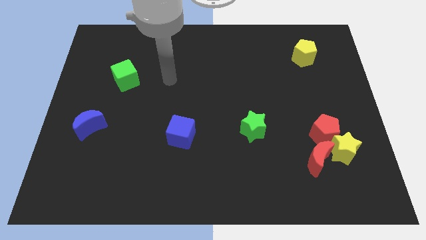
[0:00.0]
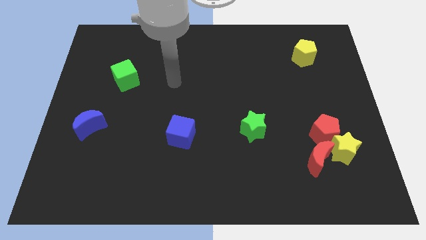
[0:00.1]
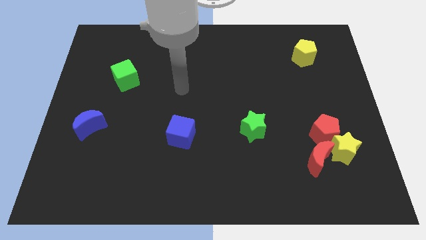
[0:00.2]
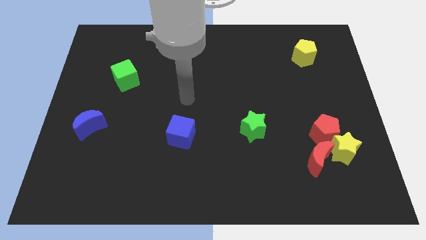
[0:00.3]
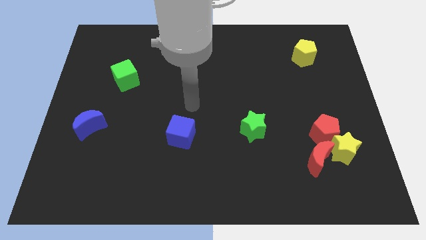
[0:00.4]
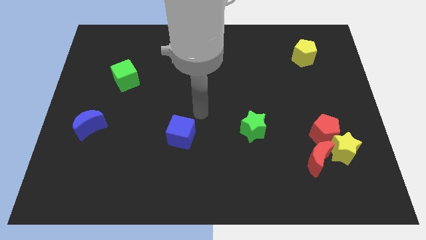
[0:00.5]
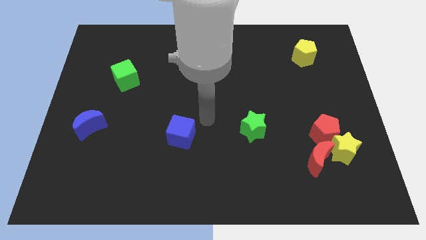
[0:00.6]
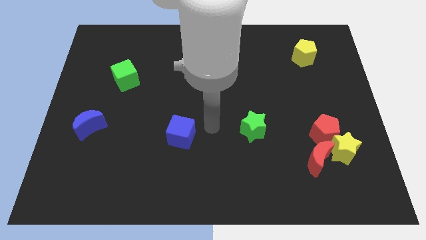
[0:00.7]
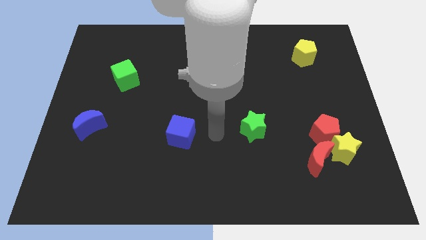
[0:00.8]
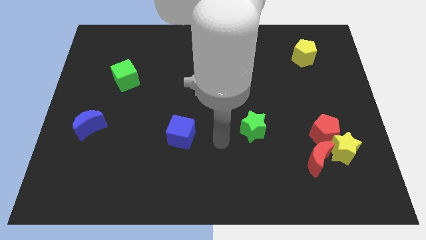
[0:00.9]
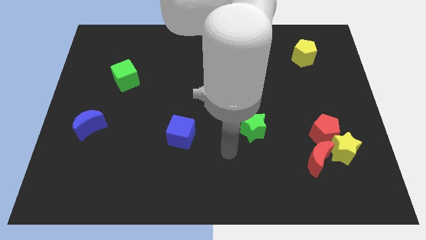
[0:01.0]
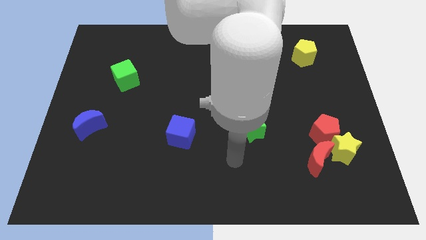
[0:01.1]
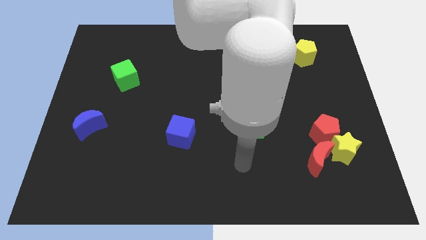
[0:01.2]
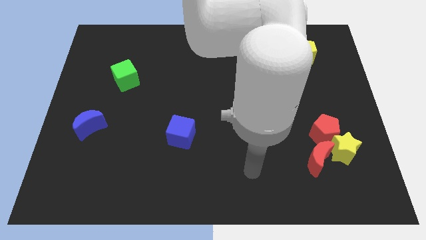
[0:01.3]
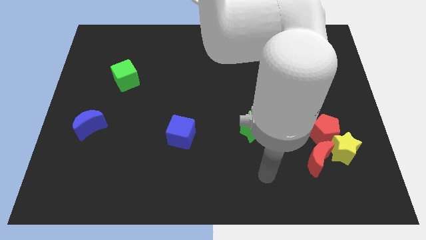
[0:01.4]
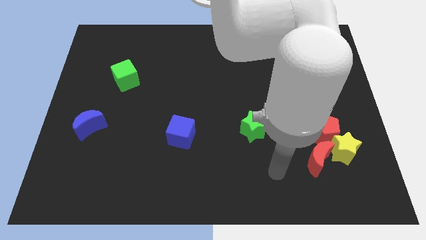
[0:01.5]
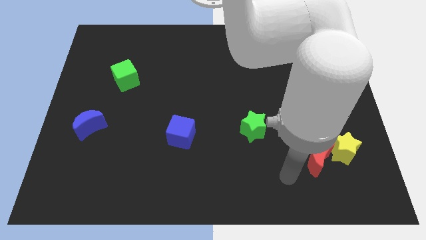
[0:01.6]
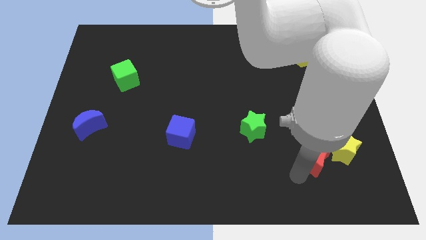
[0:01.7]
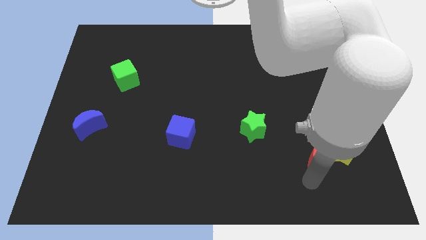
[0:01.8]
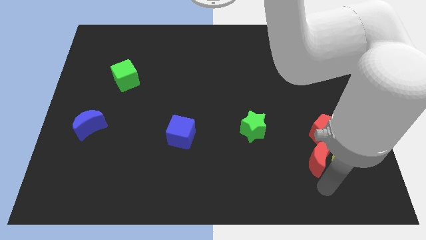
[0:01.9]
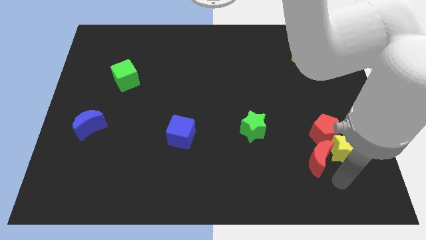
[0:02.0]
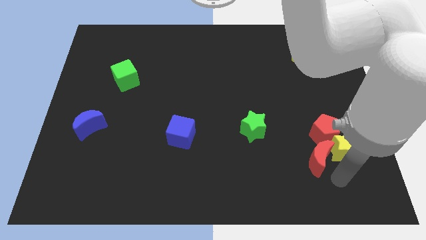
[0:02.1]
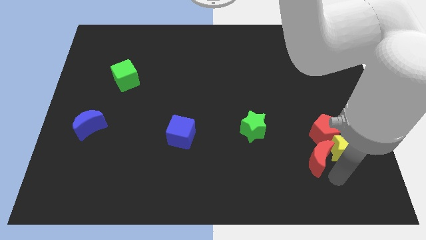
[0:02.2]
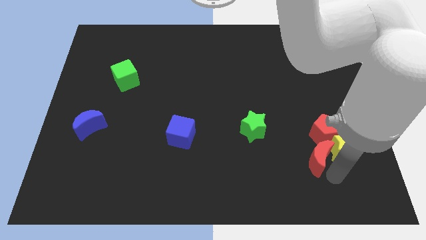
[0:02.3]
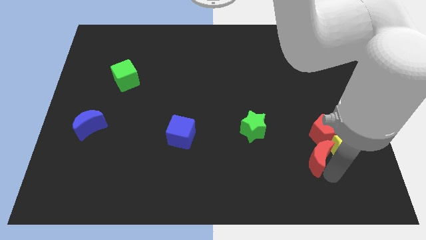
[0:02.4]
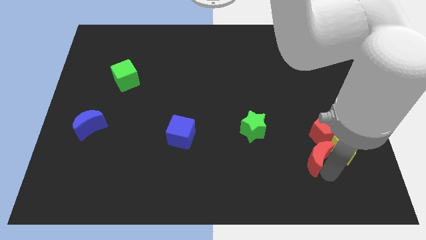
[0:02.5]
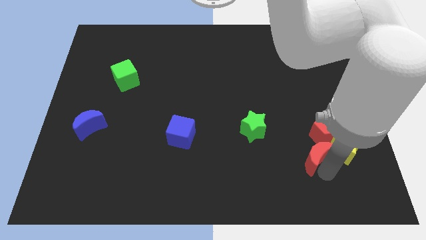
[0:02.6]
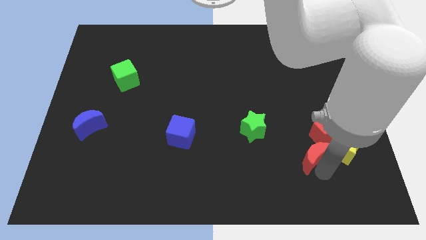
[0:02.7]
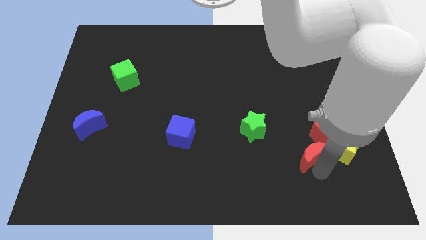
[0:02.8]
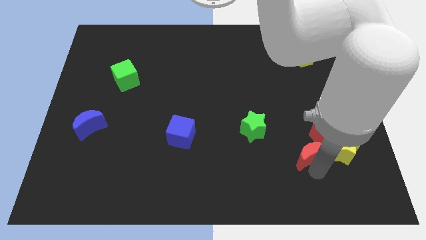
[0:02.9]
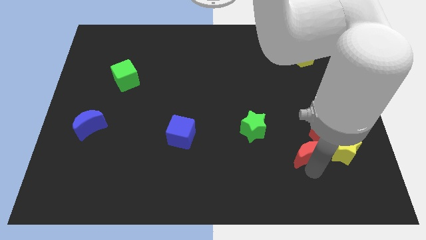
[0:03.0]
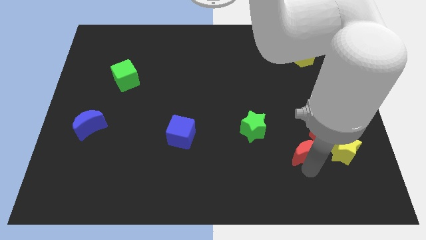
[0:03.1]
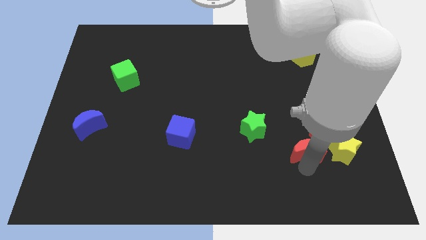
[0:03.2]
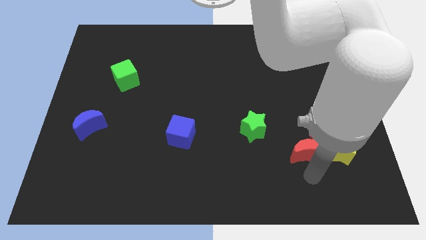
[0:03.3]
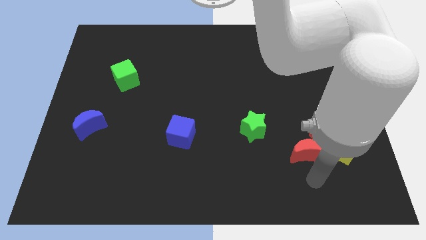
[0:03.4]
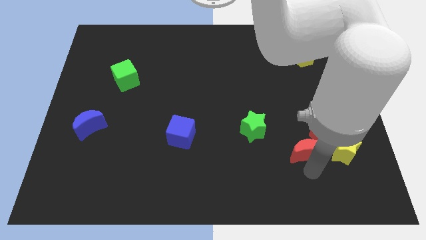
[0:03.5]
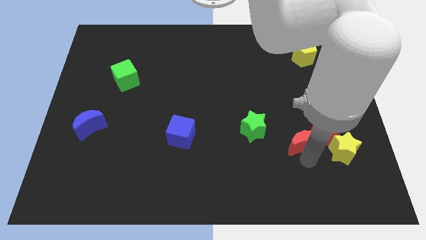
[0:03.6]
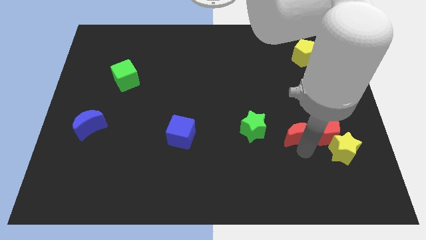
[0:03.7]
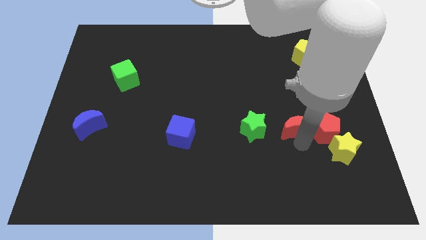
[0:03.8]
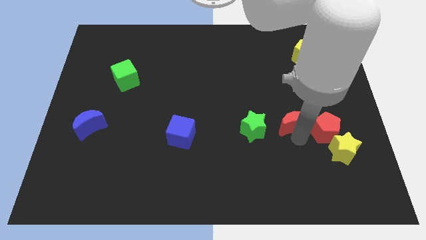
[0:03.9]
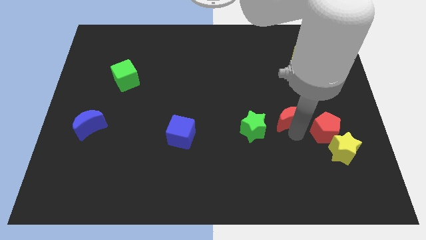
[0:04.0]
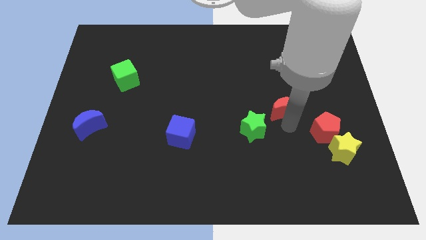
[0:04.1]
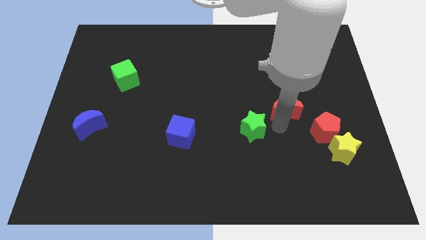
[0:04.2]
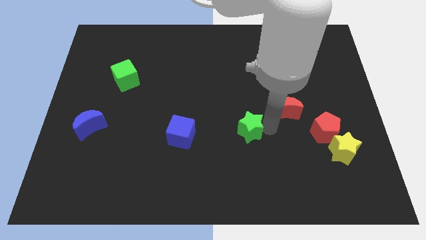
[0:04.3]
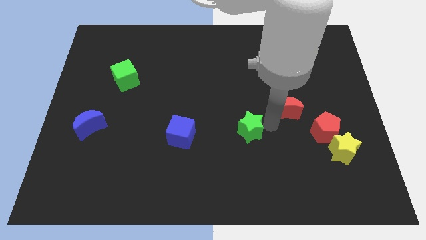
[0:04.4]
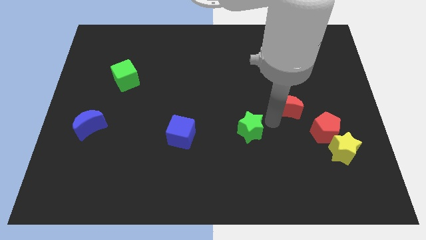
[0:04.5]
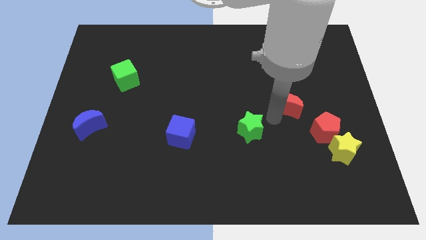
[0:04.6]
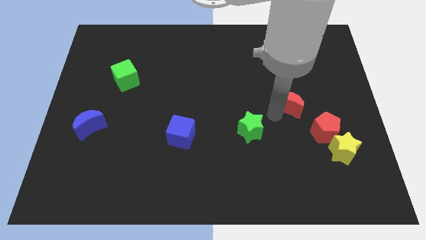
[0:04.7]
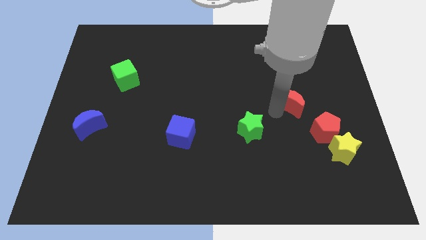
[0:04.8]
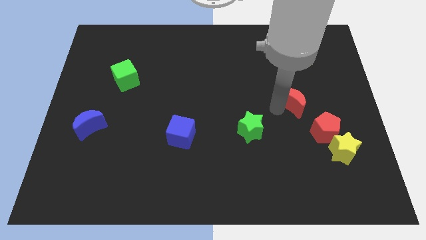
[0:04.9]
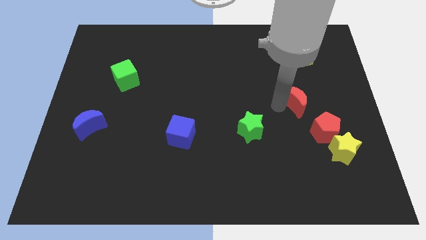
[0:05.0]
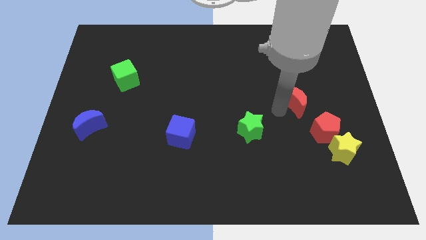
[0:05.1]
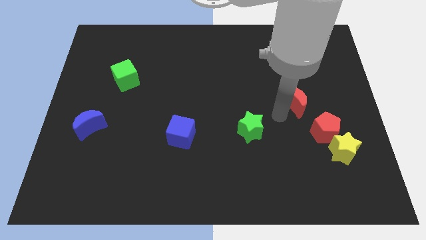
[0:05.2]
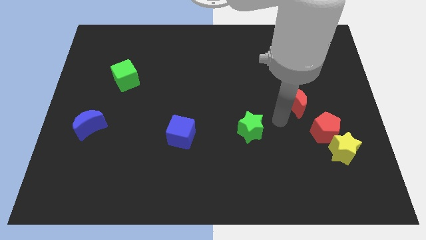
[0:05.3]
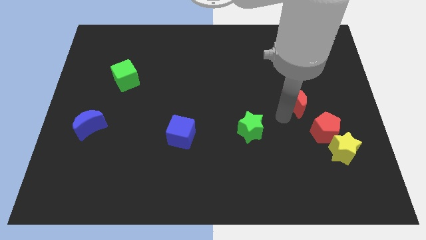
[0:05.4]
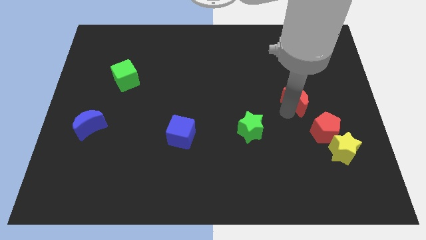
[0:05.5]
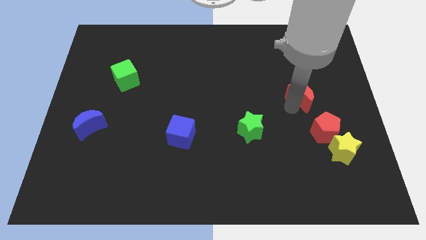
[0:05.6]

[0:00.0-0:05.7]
push the red moon to the bottom side of the yellow pentagon

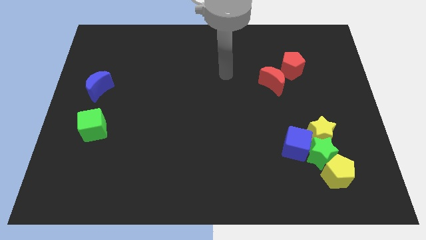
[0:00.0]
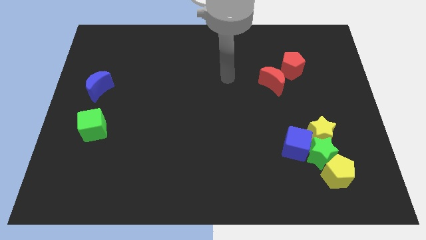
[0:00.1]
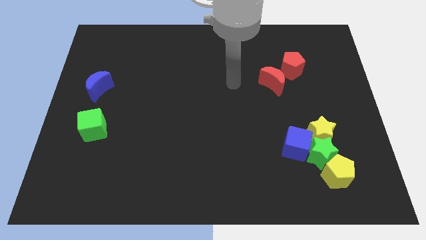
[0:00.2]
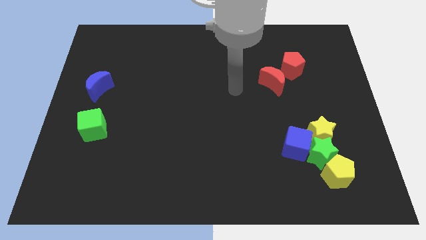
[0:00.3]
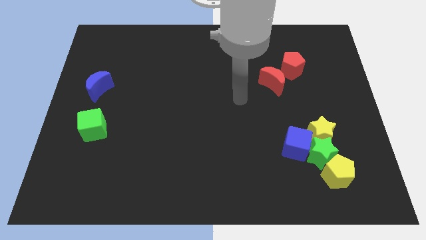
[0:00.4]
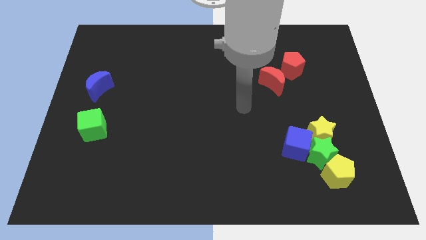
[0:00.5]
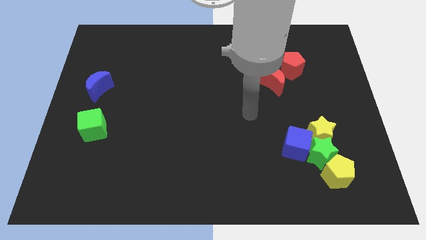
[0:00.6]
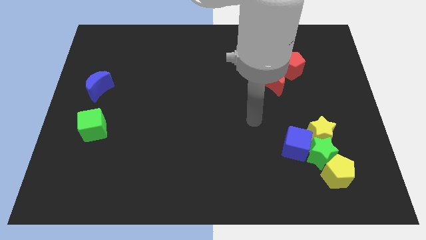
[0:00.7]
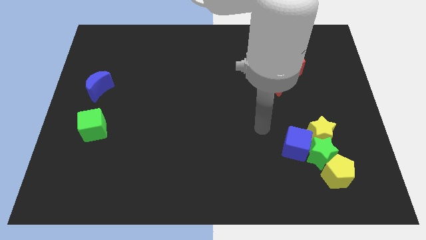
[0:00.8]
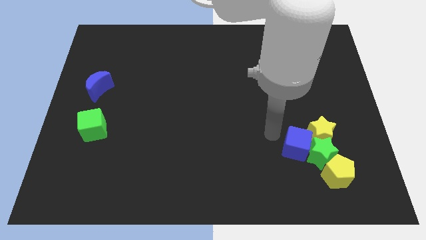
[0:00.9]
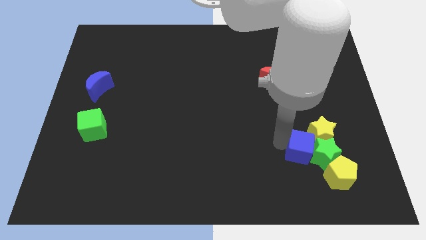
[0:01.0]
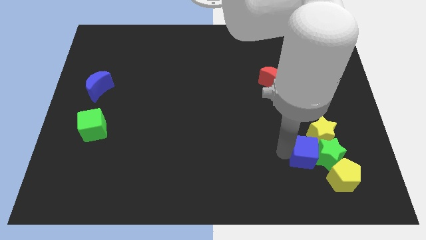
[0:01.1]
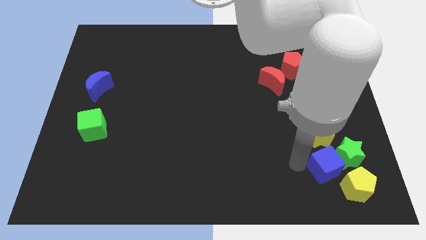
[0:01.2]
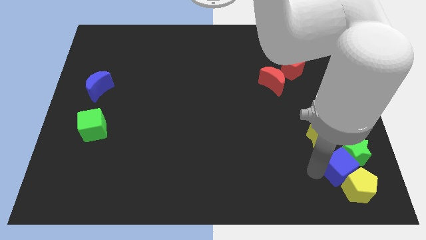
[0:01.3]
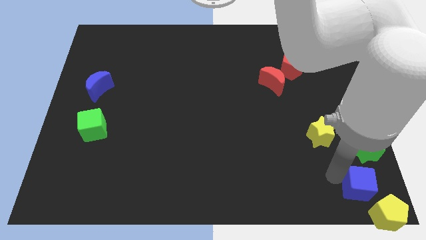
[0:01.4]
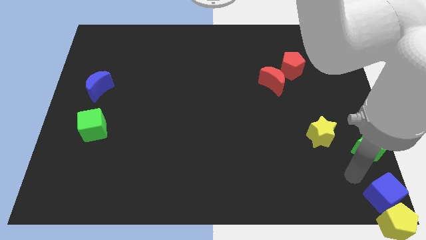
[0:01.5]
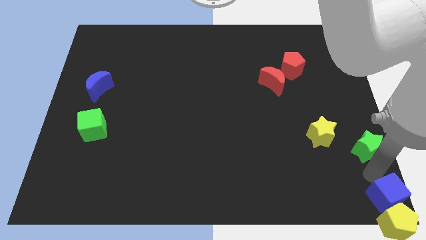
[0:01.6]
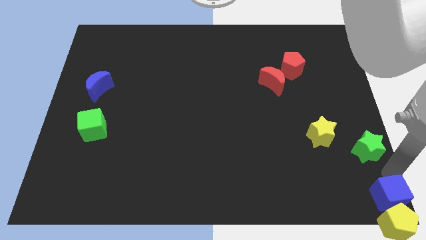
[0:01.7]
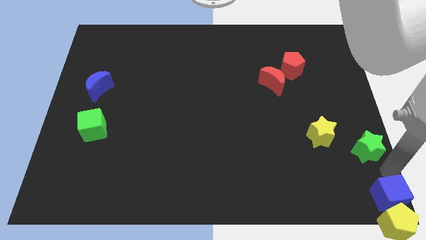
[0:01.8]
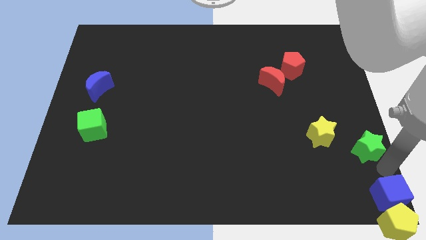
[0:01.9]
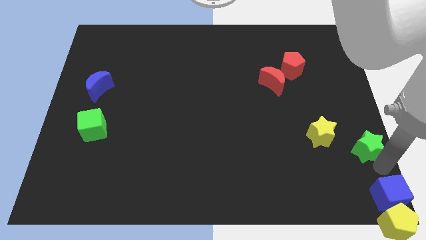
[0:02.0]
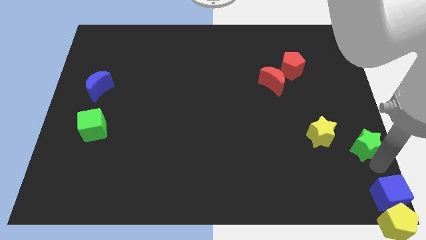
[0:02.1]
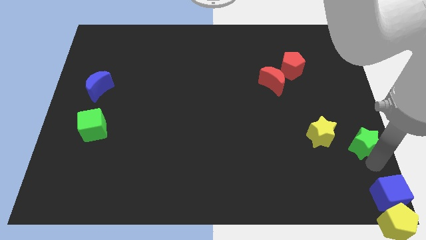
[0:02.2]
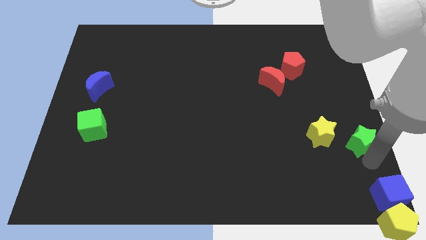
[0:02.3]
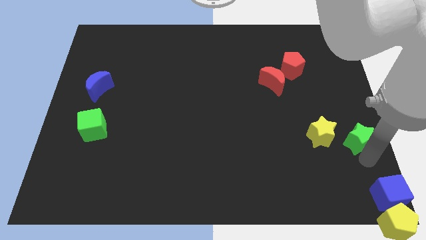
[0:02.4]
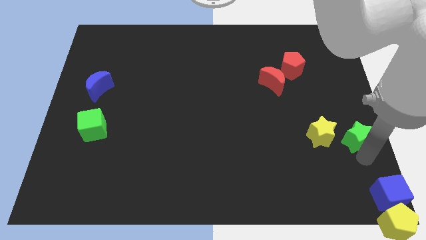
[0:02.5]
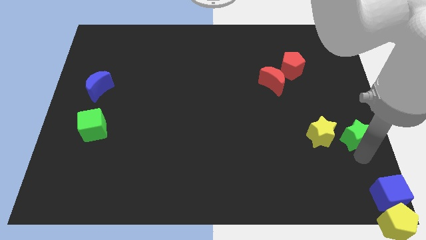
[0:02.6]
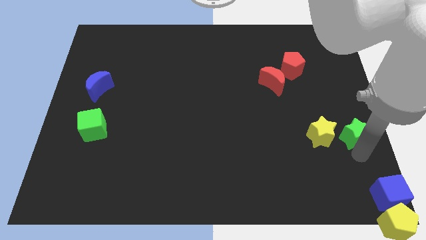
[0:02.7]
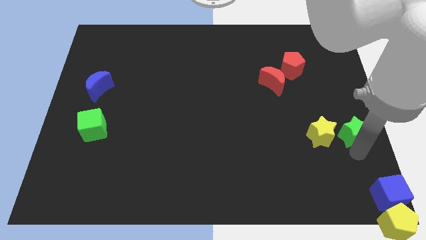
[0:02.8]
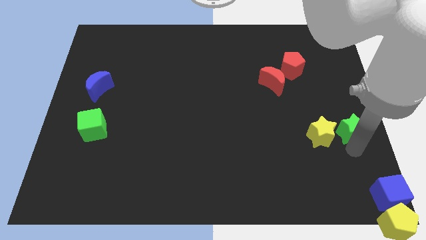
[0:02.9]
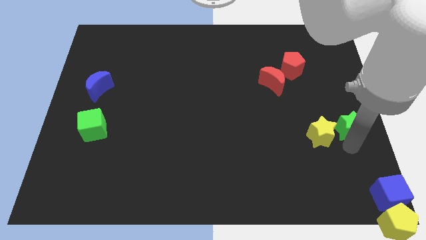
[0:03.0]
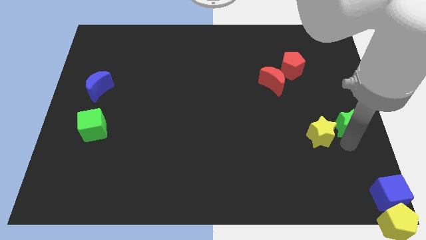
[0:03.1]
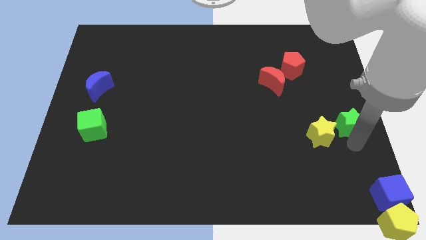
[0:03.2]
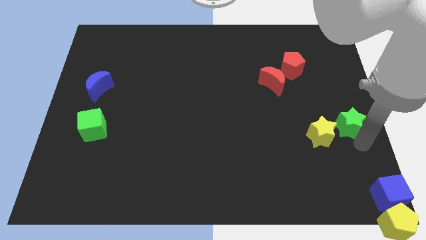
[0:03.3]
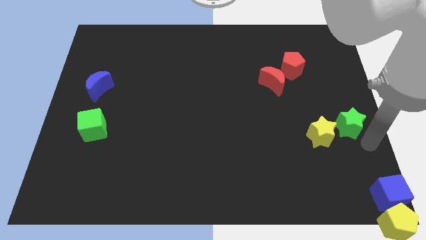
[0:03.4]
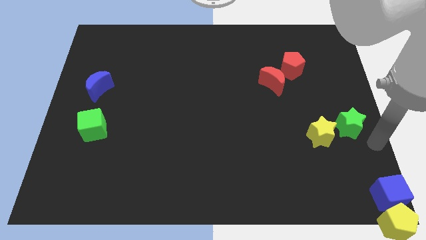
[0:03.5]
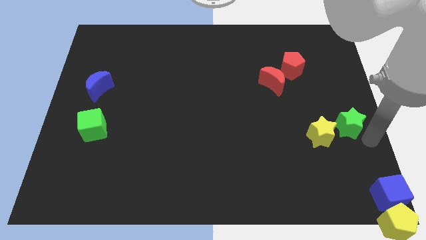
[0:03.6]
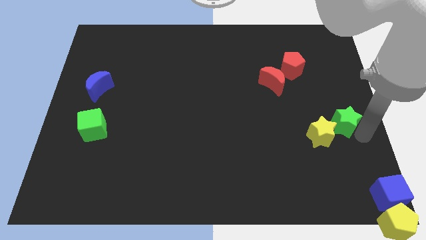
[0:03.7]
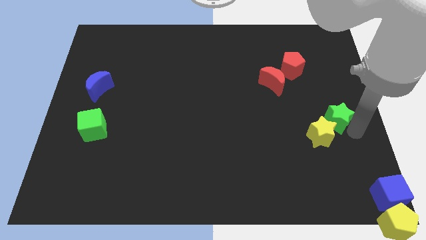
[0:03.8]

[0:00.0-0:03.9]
slide the green star to the top side of the yellow star
